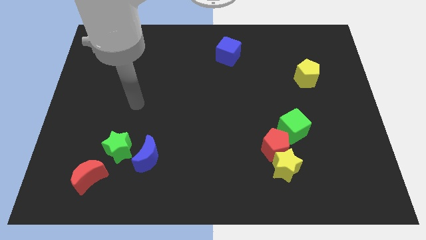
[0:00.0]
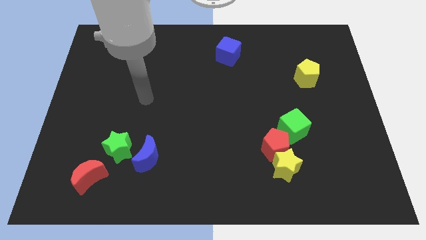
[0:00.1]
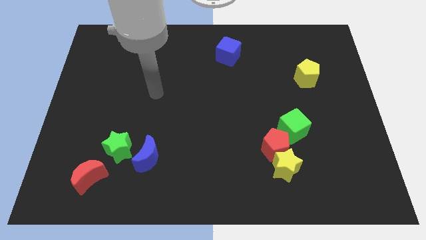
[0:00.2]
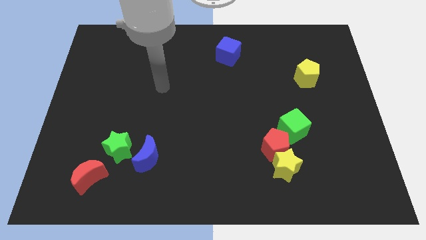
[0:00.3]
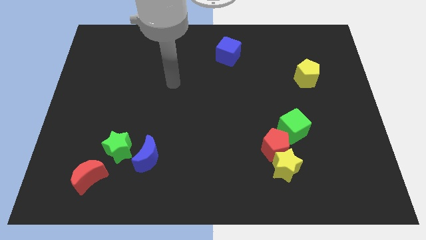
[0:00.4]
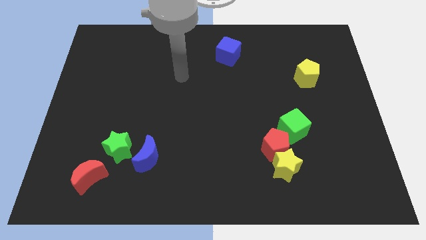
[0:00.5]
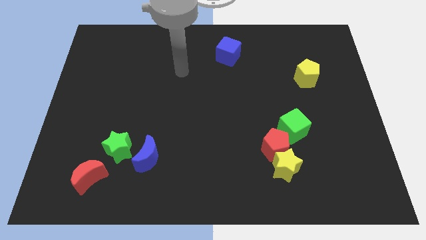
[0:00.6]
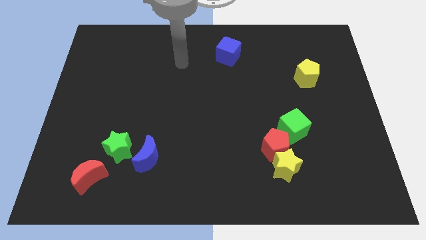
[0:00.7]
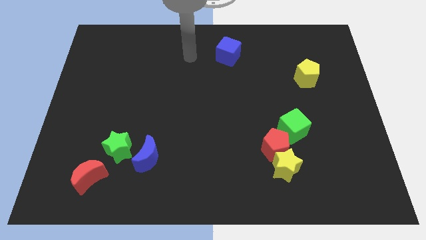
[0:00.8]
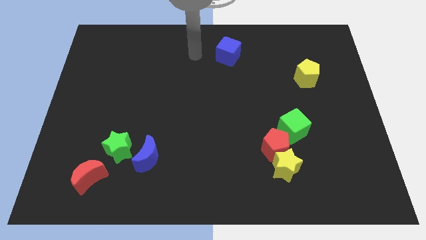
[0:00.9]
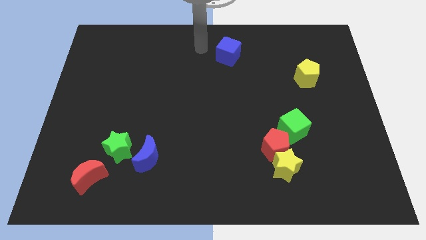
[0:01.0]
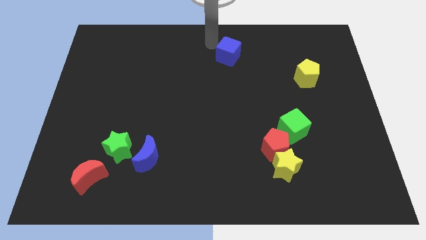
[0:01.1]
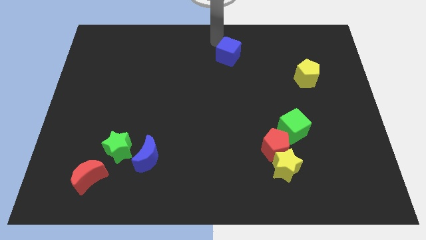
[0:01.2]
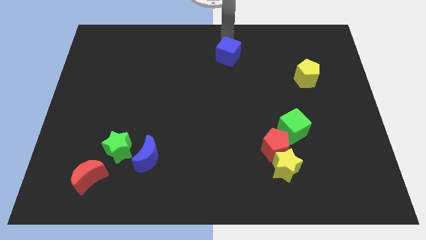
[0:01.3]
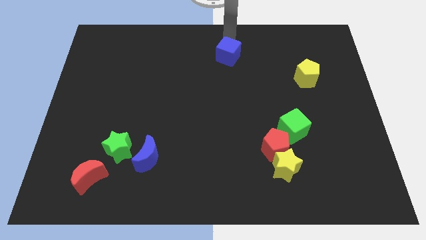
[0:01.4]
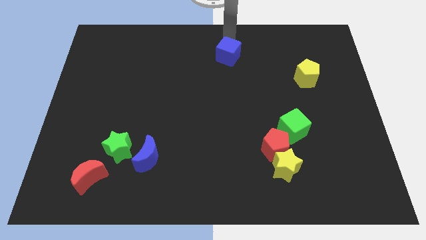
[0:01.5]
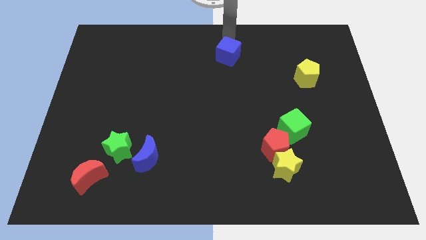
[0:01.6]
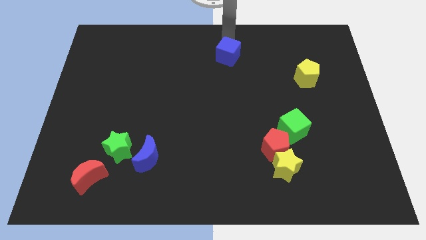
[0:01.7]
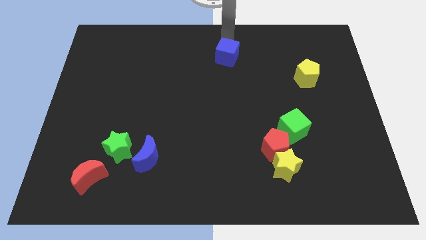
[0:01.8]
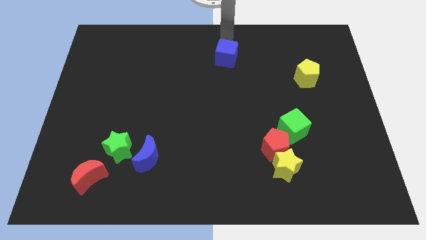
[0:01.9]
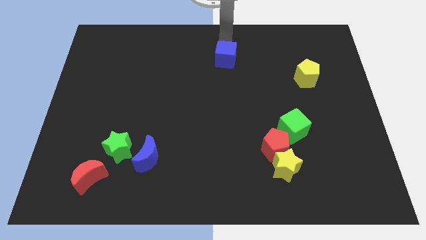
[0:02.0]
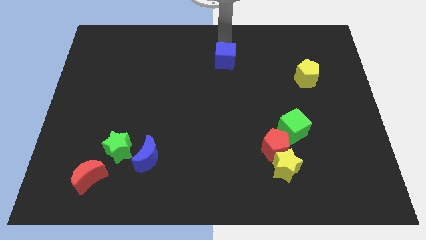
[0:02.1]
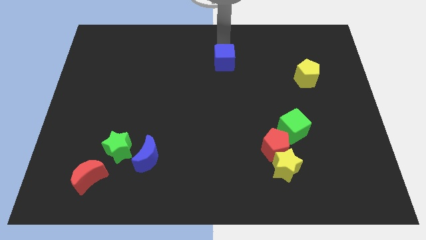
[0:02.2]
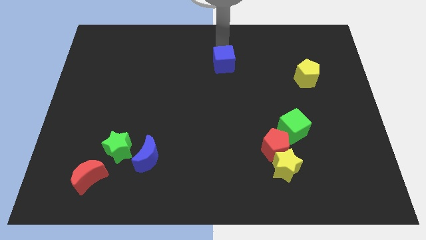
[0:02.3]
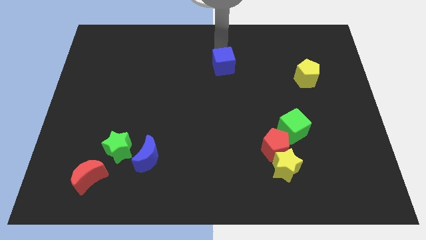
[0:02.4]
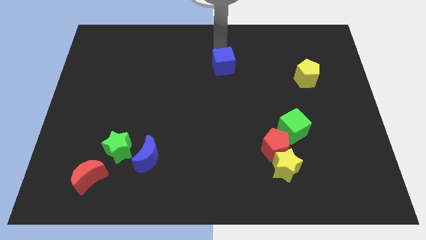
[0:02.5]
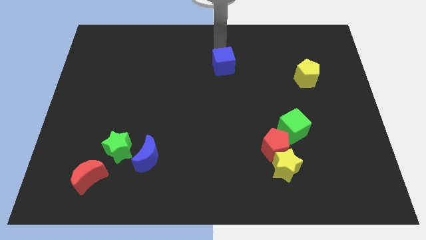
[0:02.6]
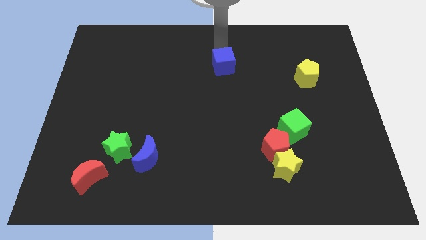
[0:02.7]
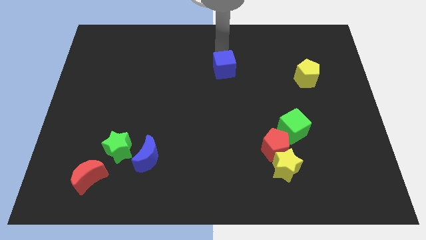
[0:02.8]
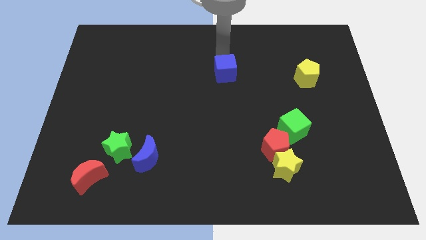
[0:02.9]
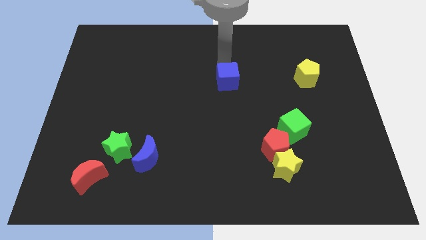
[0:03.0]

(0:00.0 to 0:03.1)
push the blue cube downwards a bit

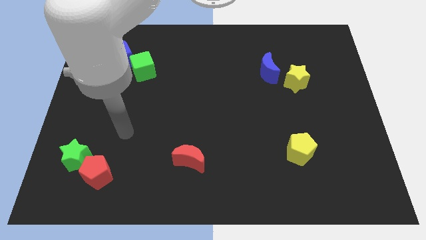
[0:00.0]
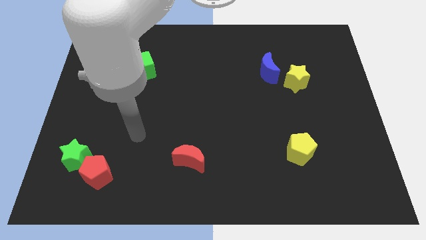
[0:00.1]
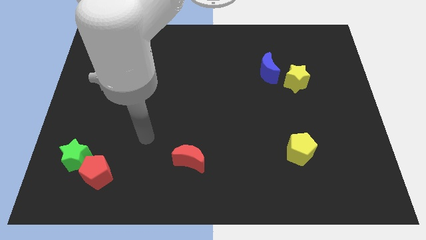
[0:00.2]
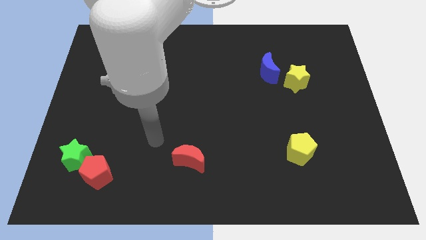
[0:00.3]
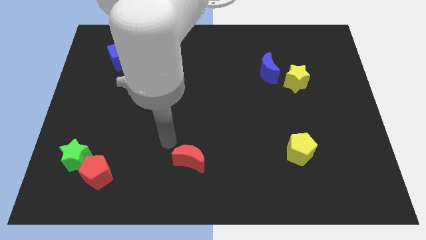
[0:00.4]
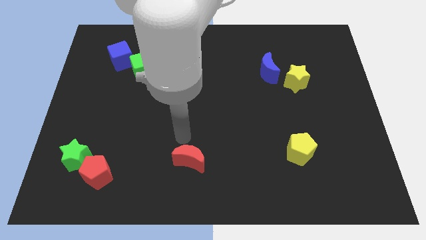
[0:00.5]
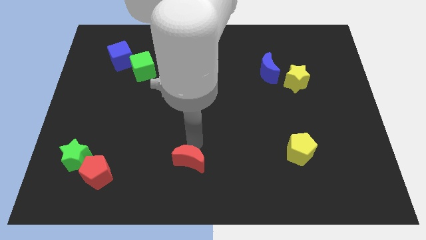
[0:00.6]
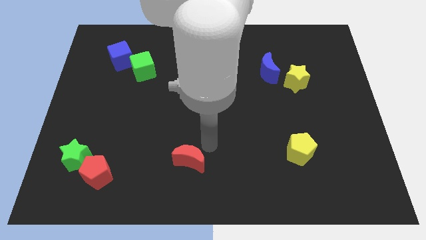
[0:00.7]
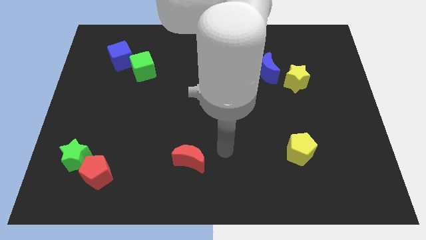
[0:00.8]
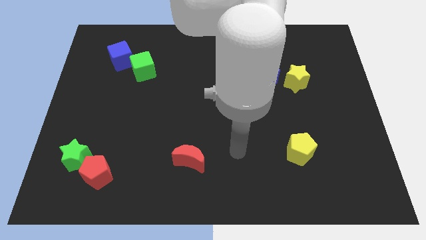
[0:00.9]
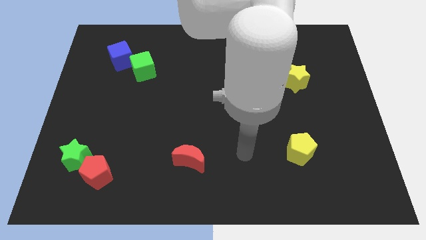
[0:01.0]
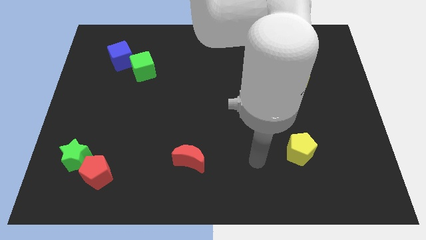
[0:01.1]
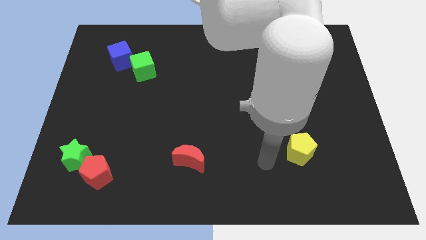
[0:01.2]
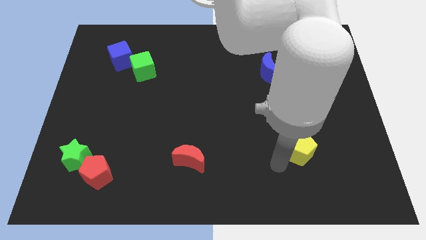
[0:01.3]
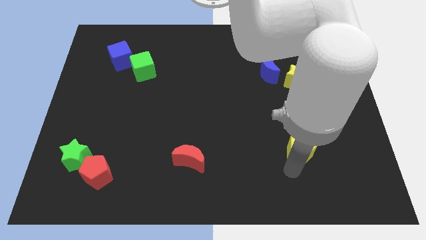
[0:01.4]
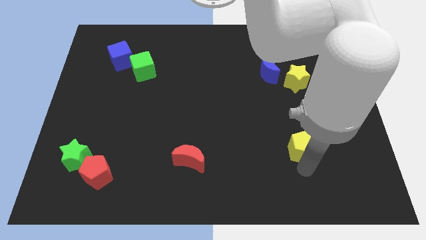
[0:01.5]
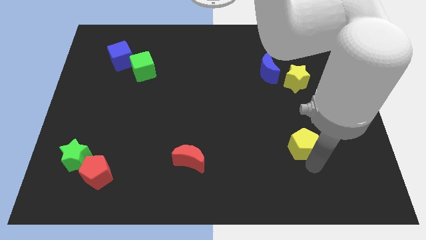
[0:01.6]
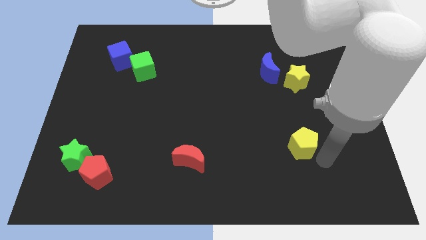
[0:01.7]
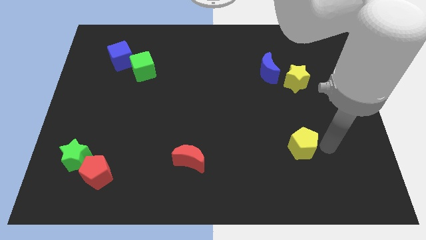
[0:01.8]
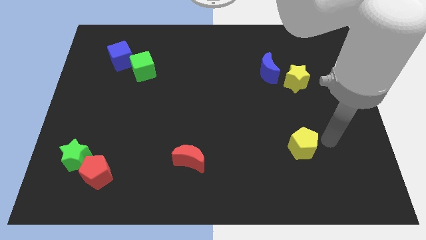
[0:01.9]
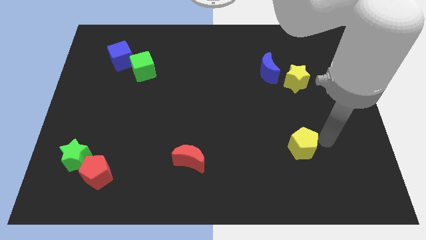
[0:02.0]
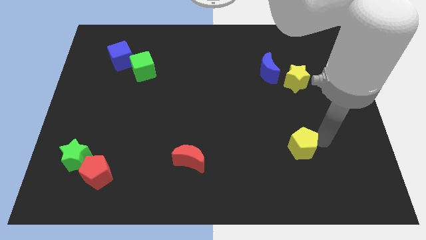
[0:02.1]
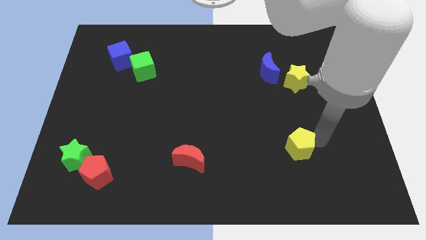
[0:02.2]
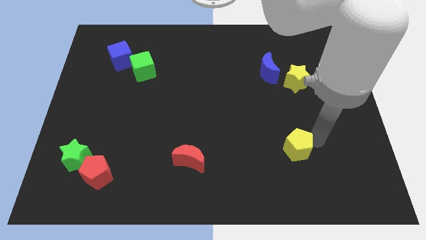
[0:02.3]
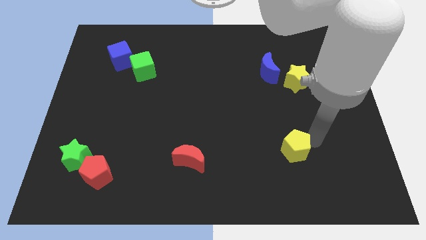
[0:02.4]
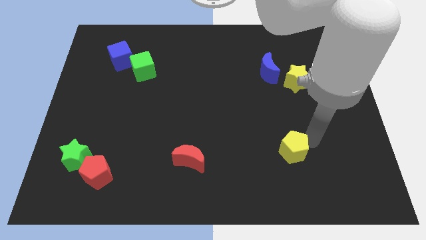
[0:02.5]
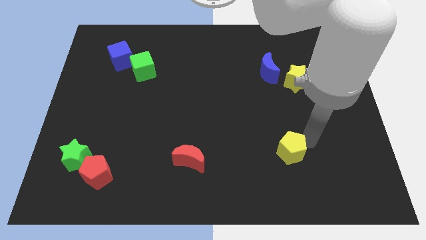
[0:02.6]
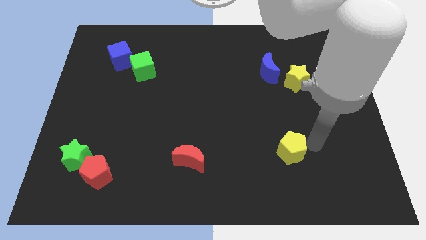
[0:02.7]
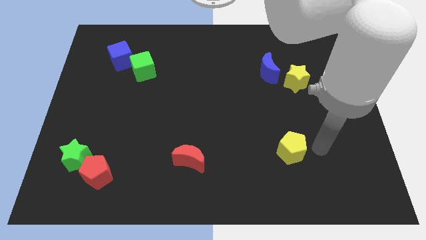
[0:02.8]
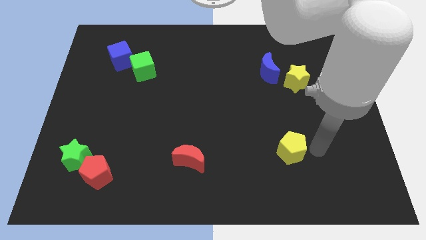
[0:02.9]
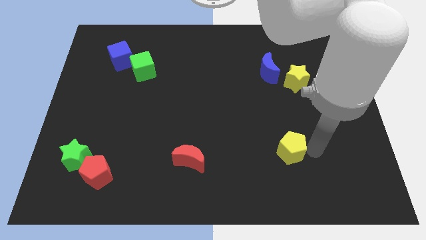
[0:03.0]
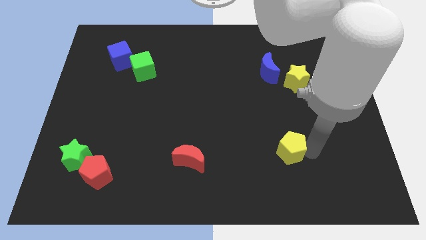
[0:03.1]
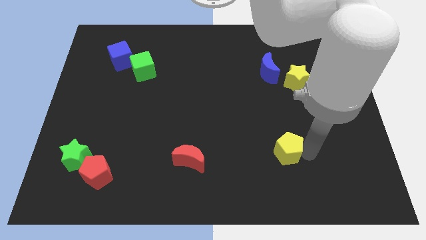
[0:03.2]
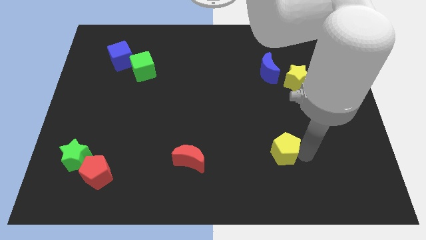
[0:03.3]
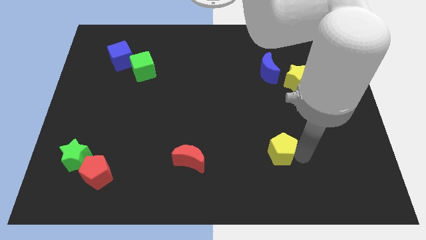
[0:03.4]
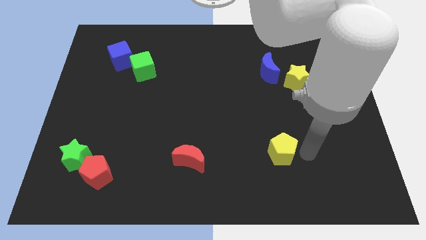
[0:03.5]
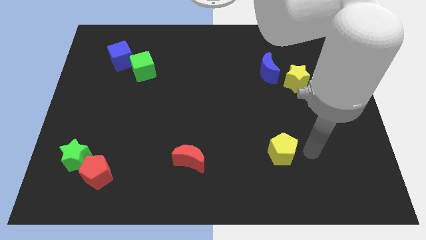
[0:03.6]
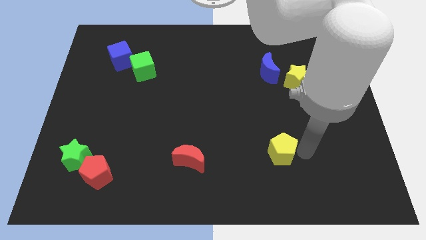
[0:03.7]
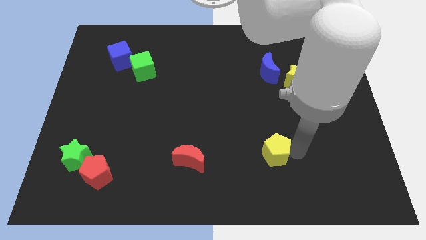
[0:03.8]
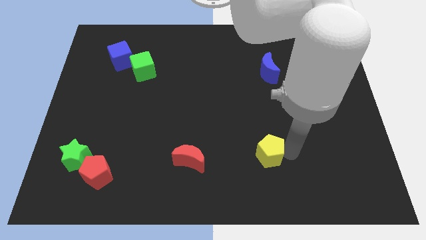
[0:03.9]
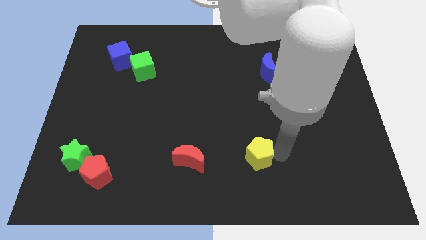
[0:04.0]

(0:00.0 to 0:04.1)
slightly move the yellow pentagon to the left

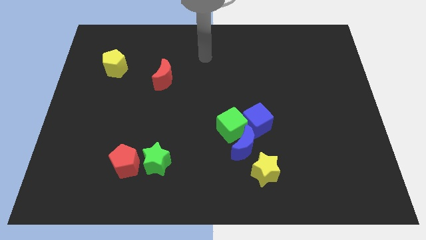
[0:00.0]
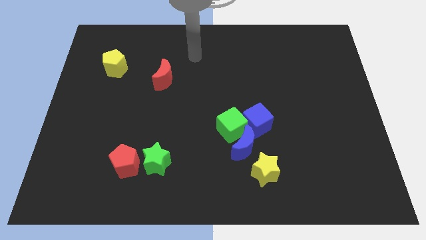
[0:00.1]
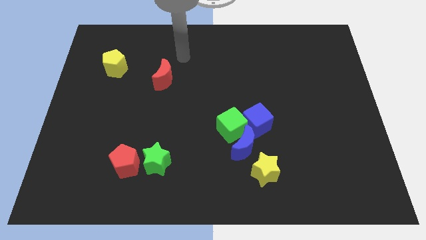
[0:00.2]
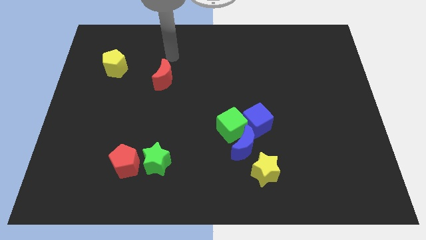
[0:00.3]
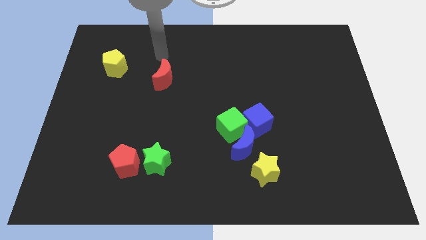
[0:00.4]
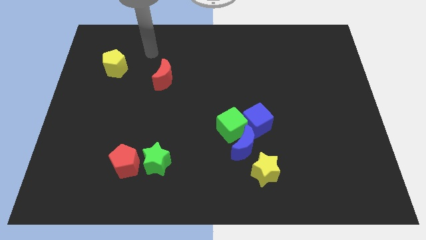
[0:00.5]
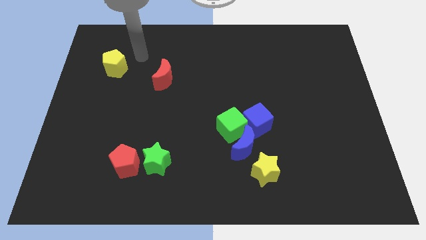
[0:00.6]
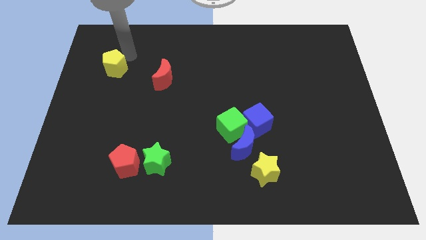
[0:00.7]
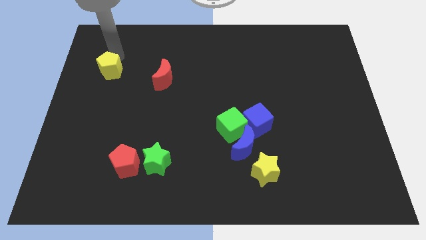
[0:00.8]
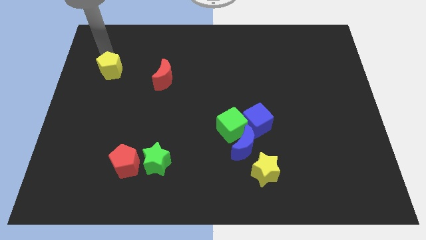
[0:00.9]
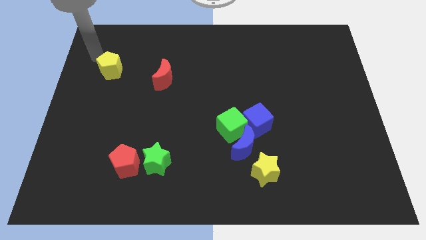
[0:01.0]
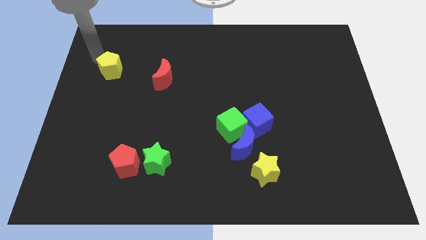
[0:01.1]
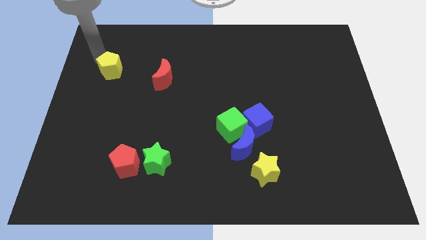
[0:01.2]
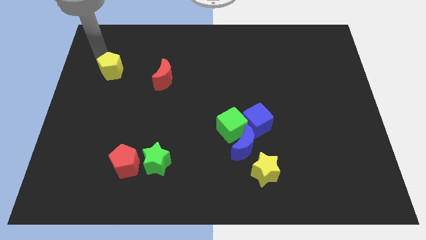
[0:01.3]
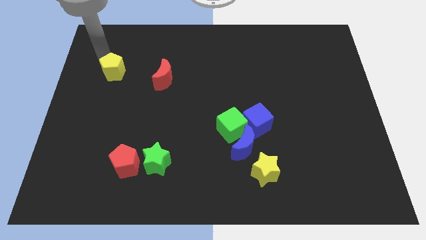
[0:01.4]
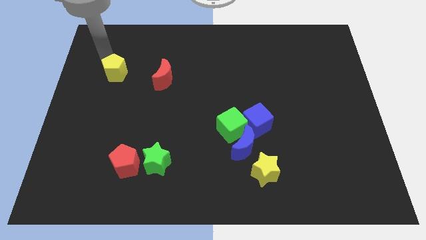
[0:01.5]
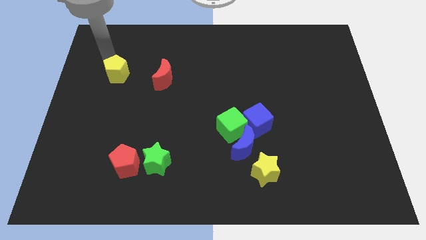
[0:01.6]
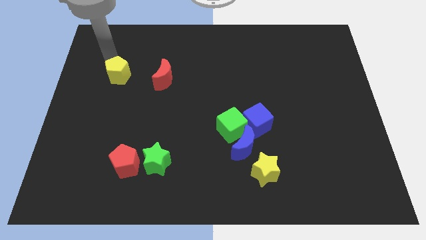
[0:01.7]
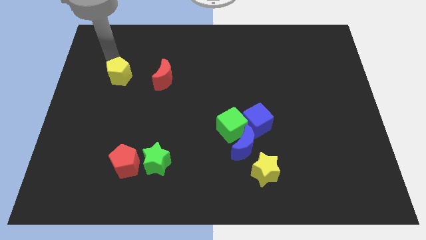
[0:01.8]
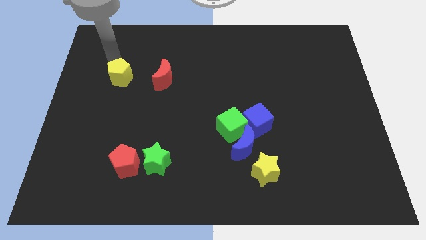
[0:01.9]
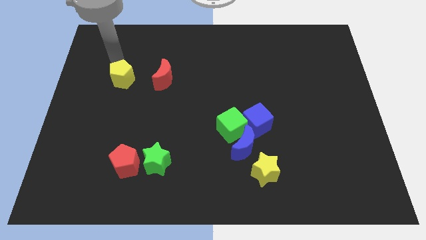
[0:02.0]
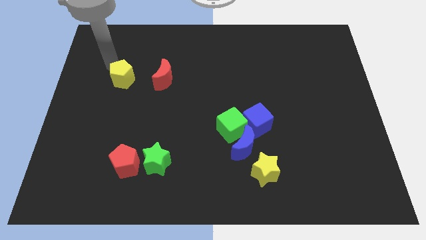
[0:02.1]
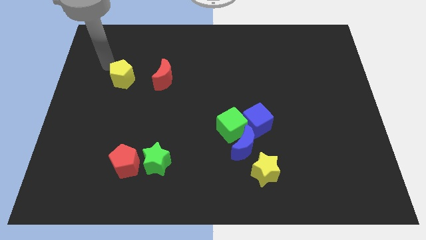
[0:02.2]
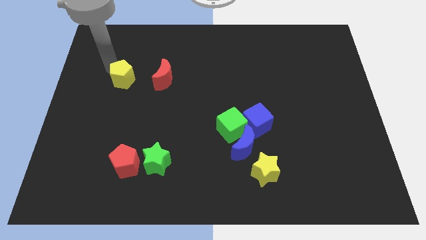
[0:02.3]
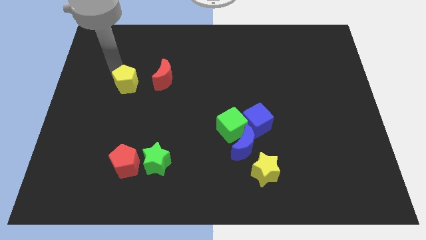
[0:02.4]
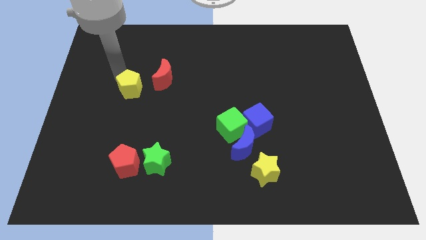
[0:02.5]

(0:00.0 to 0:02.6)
move the yellow pentagon a little bit diagonally downwards and right
